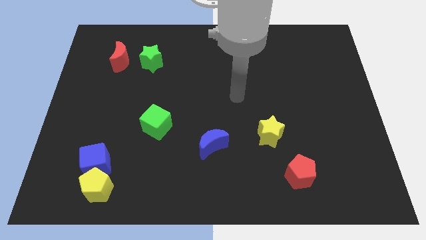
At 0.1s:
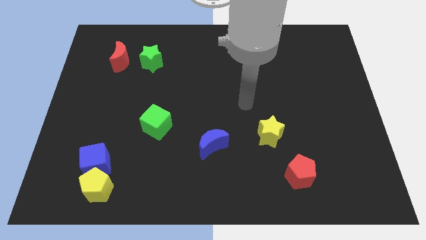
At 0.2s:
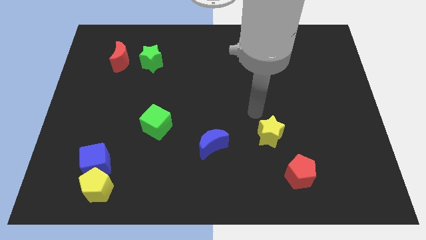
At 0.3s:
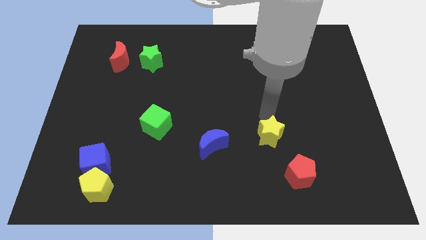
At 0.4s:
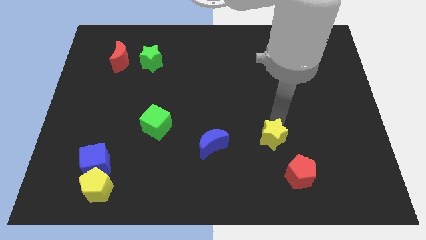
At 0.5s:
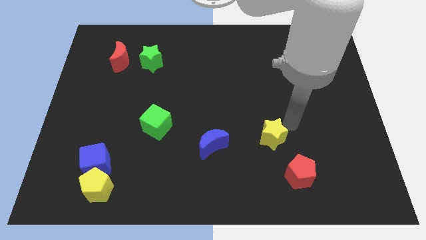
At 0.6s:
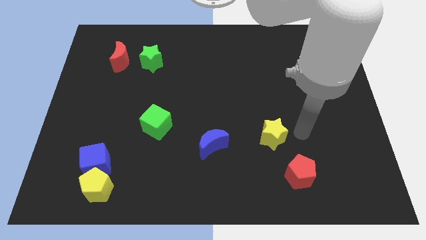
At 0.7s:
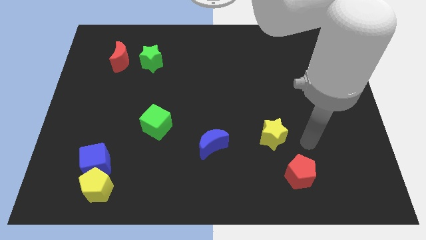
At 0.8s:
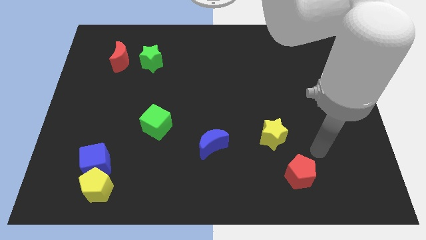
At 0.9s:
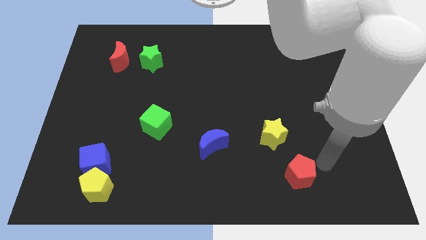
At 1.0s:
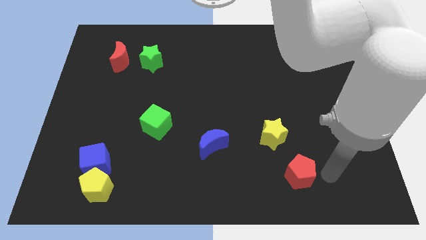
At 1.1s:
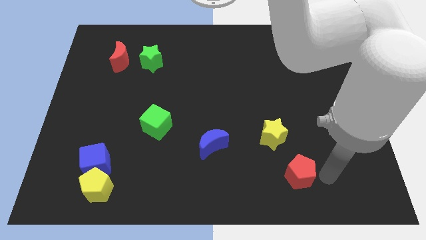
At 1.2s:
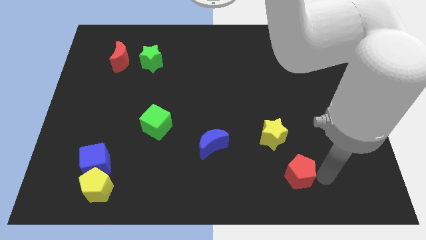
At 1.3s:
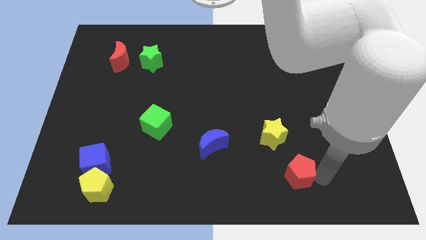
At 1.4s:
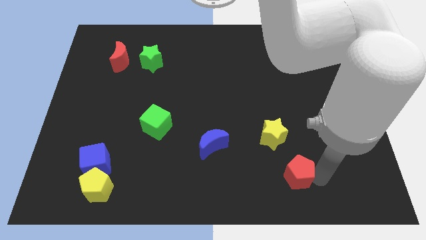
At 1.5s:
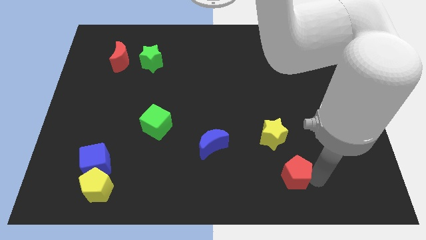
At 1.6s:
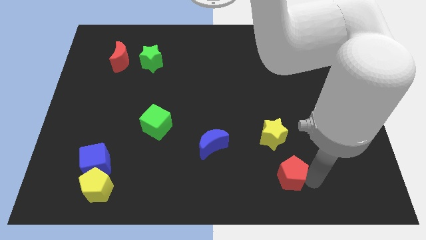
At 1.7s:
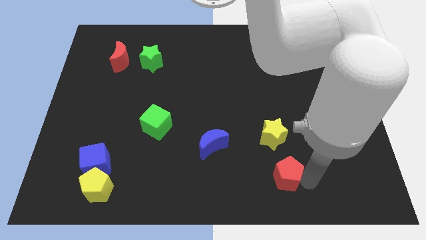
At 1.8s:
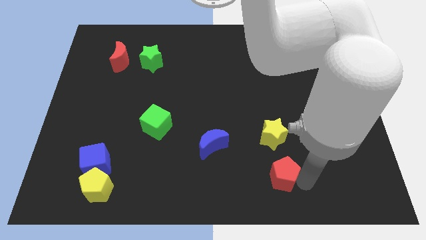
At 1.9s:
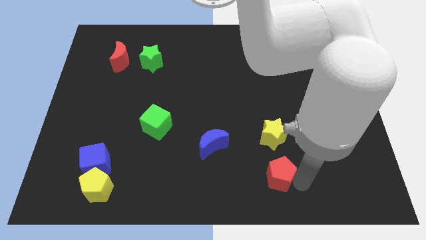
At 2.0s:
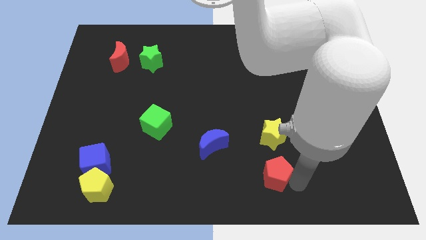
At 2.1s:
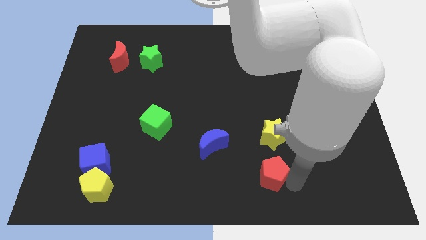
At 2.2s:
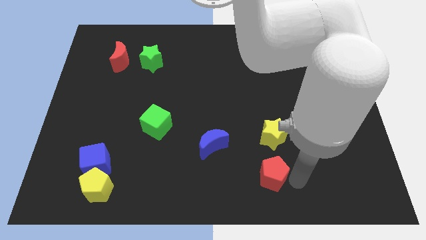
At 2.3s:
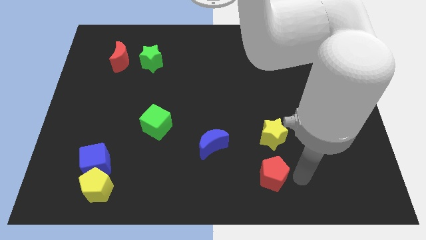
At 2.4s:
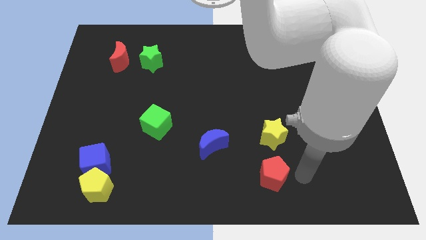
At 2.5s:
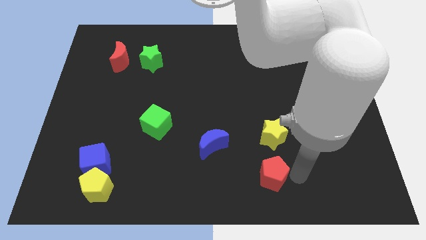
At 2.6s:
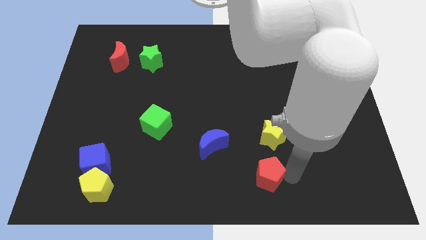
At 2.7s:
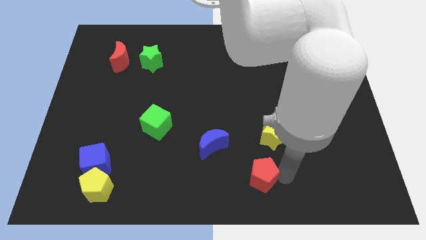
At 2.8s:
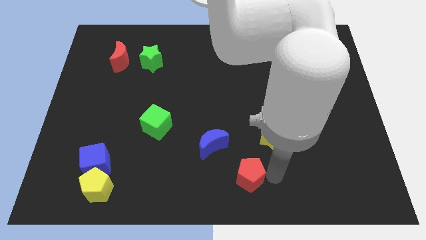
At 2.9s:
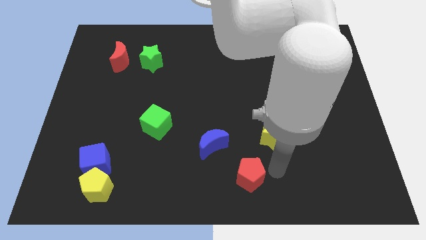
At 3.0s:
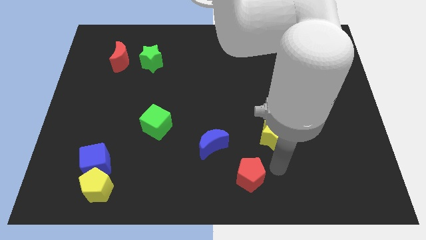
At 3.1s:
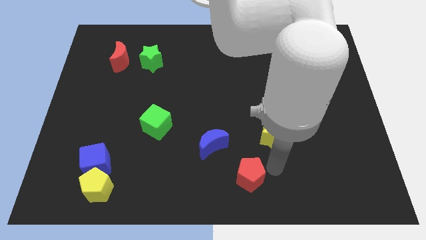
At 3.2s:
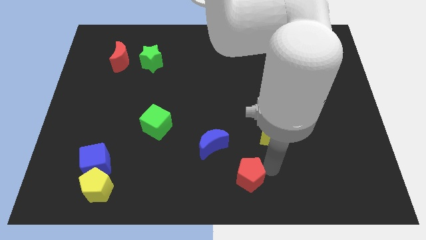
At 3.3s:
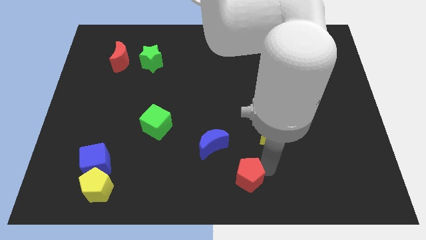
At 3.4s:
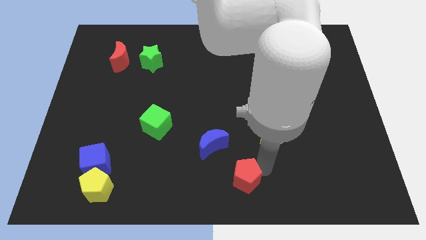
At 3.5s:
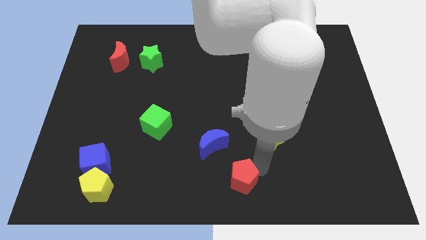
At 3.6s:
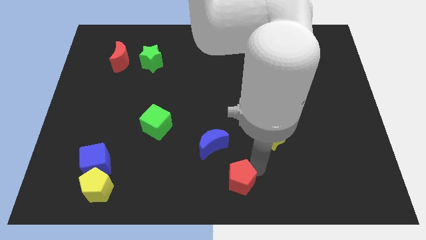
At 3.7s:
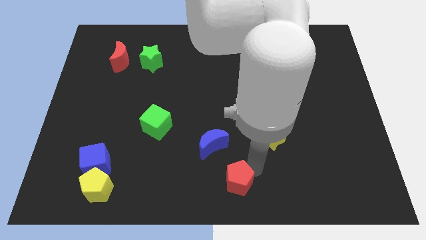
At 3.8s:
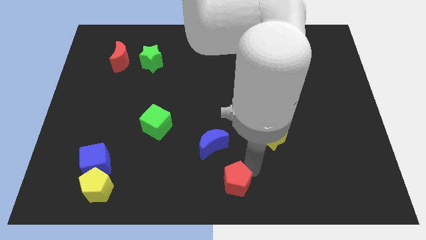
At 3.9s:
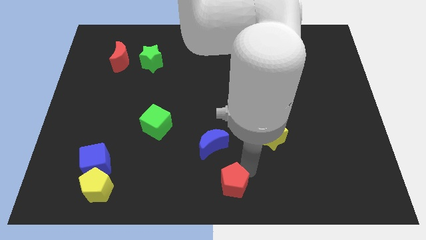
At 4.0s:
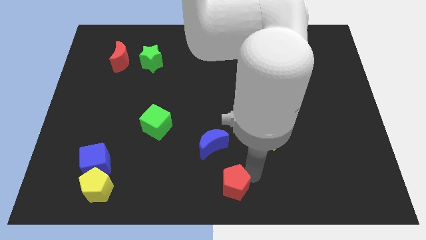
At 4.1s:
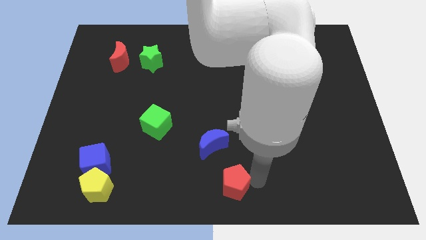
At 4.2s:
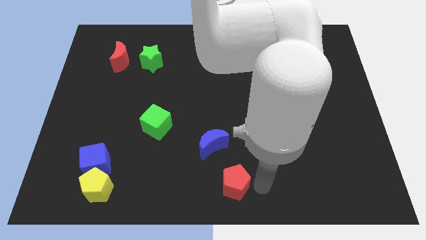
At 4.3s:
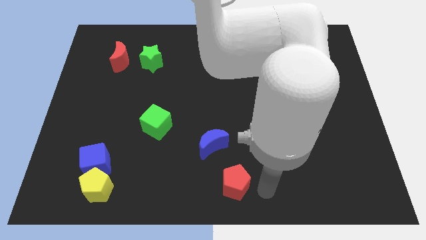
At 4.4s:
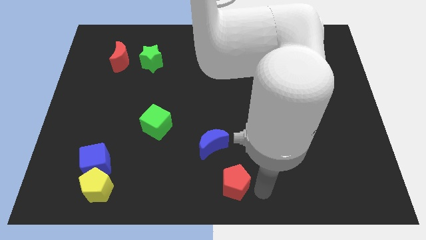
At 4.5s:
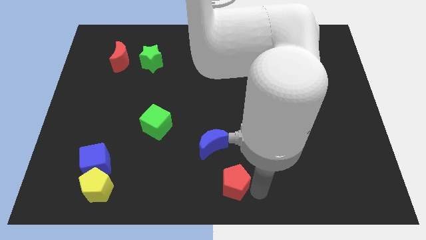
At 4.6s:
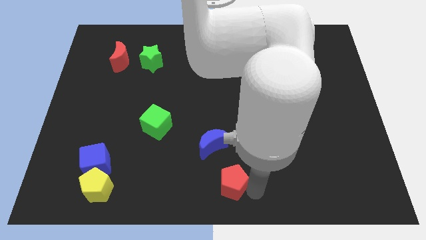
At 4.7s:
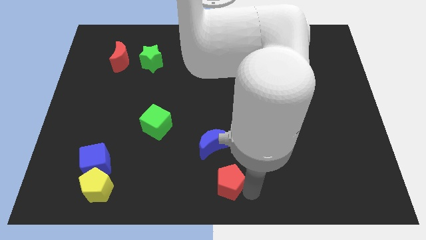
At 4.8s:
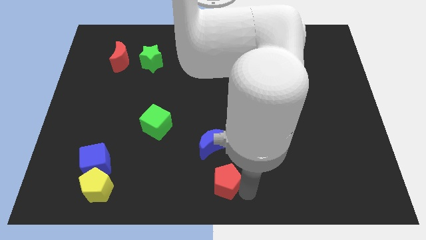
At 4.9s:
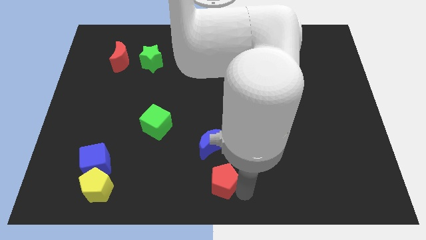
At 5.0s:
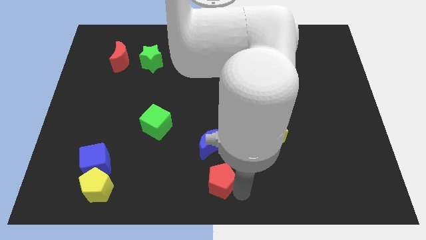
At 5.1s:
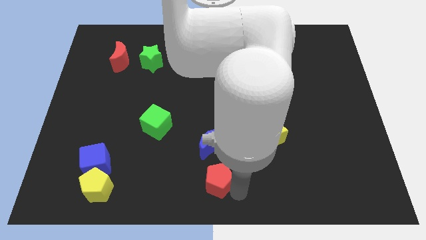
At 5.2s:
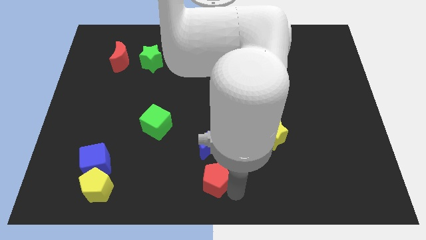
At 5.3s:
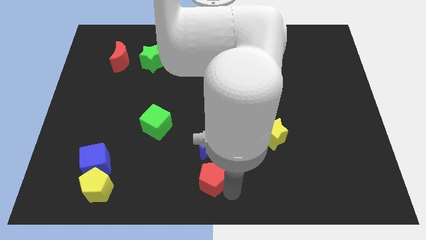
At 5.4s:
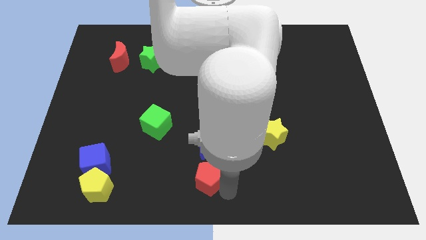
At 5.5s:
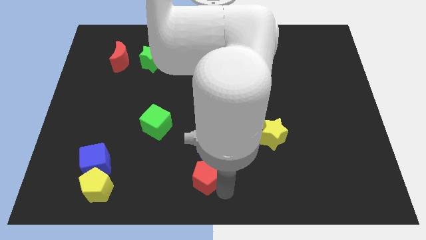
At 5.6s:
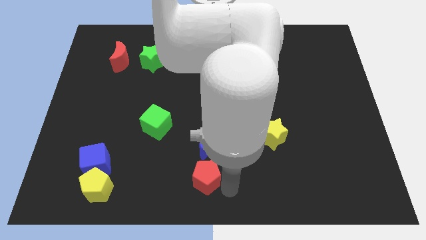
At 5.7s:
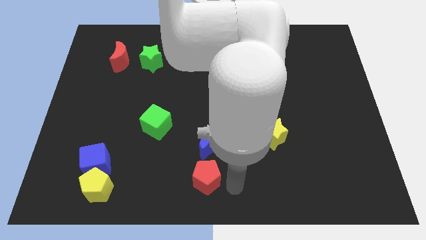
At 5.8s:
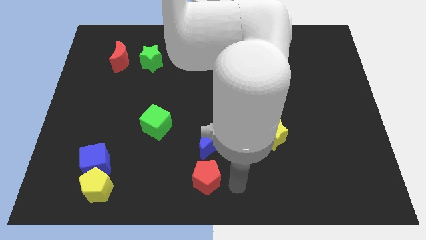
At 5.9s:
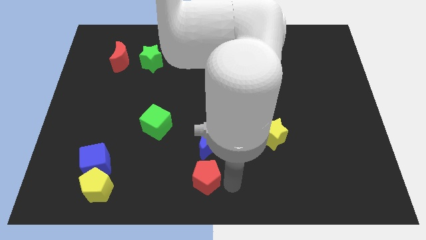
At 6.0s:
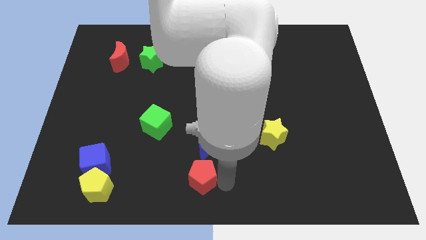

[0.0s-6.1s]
move the red pentagon left

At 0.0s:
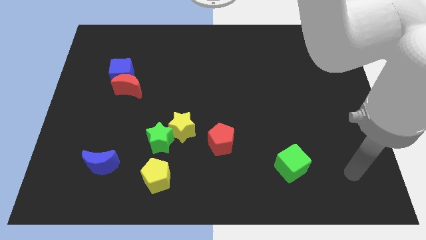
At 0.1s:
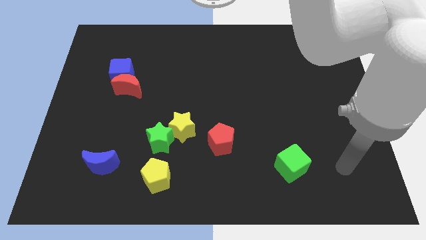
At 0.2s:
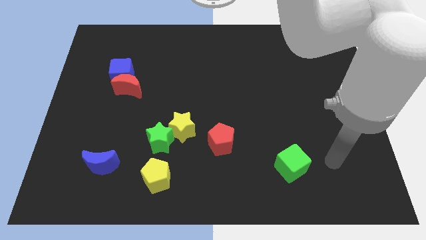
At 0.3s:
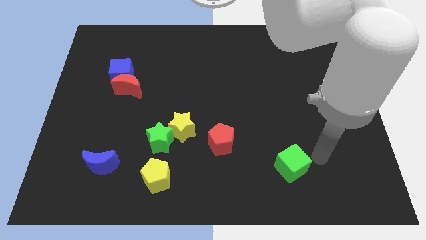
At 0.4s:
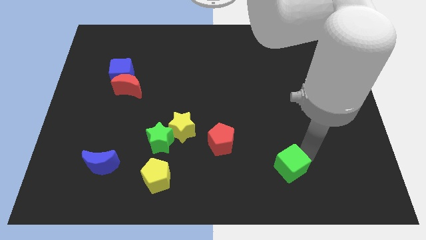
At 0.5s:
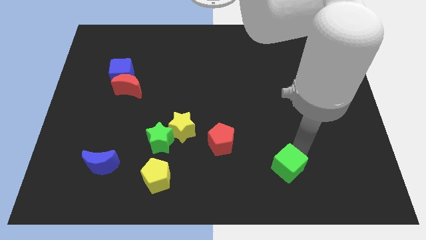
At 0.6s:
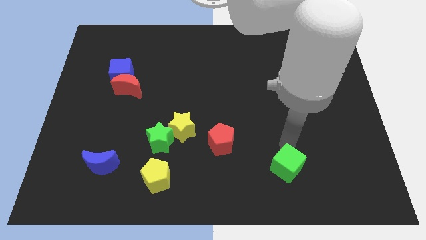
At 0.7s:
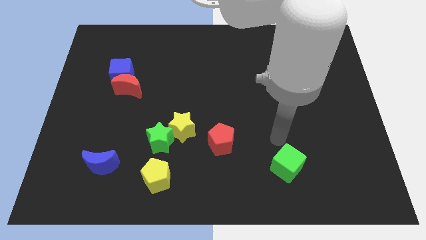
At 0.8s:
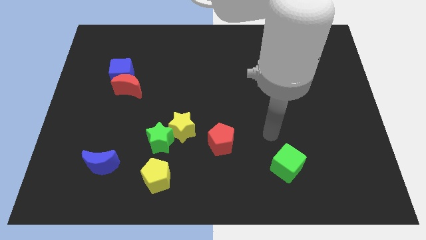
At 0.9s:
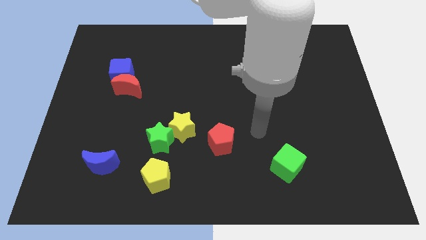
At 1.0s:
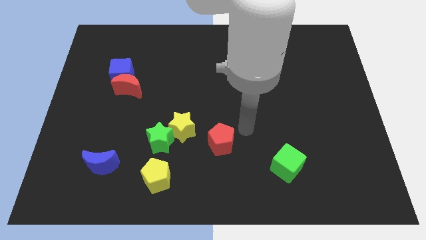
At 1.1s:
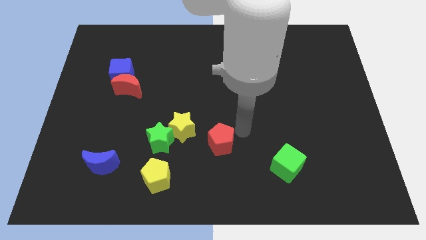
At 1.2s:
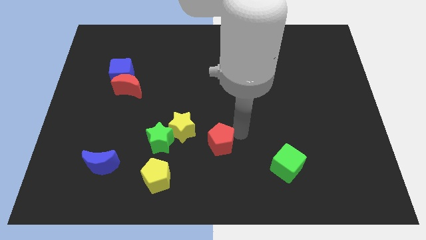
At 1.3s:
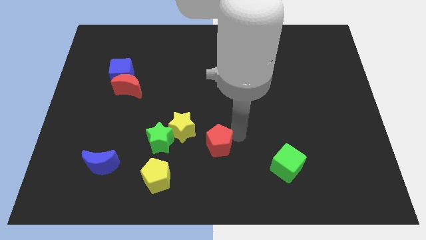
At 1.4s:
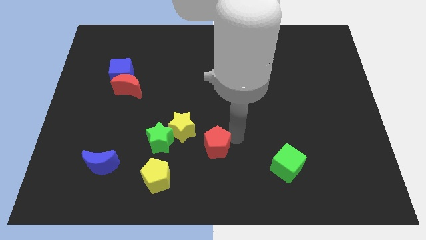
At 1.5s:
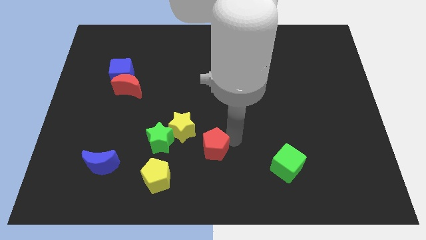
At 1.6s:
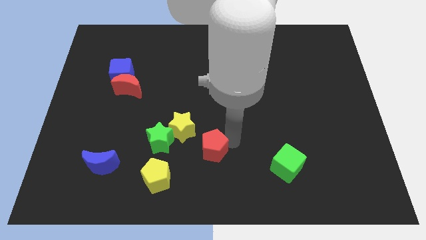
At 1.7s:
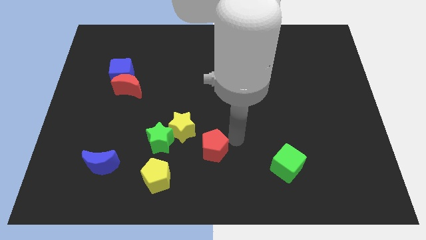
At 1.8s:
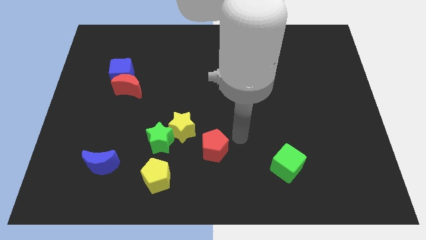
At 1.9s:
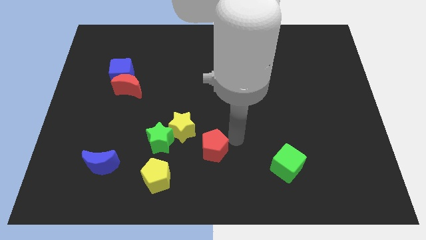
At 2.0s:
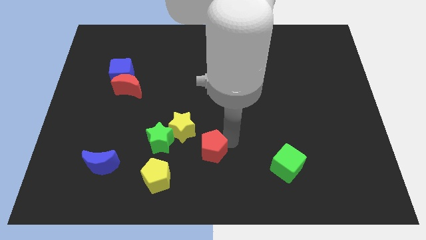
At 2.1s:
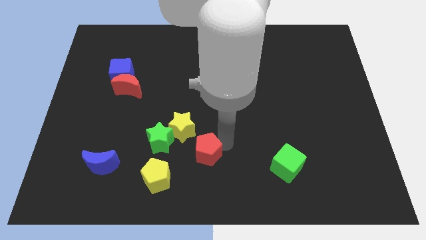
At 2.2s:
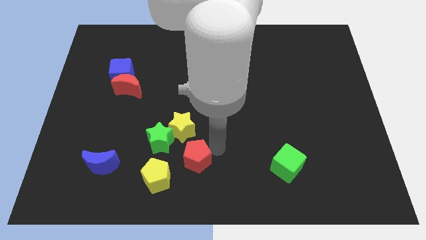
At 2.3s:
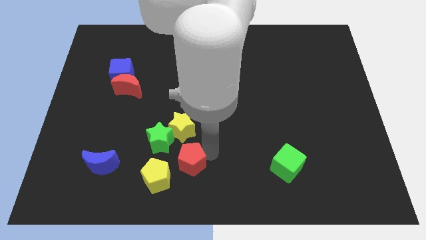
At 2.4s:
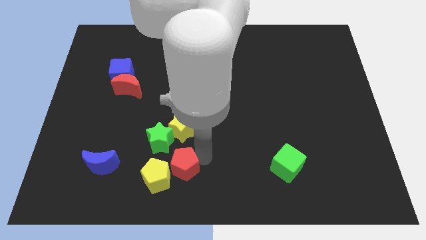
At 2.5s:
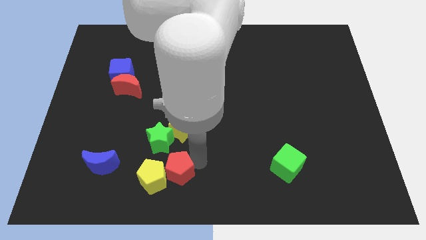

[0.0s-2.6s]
slide the red pentagon to the left a little
